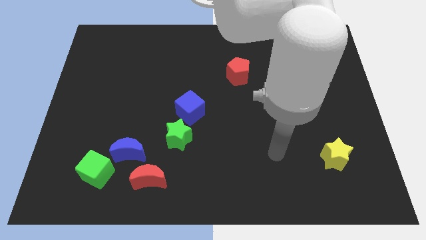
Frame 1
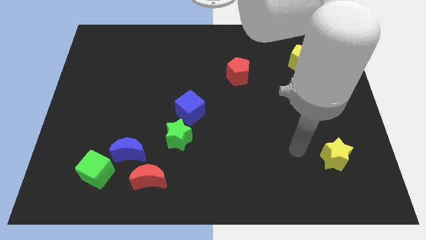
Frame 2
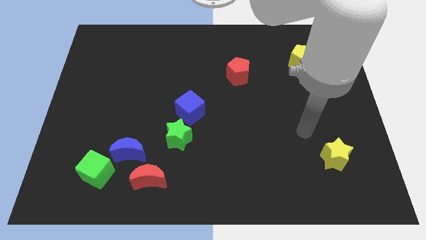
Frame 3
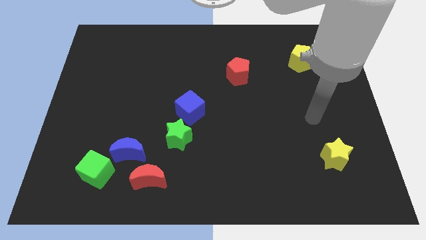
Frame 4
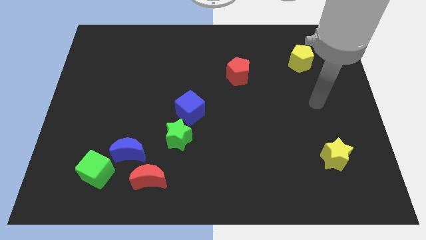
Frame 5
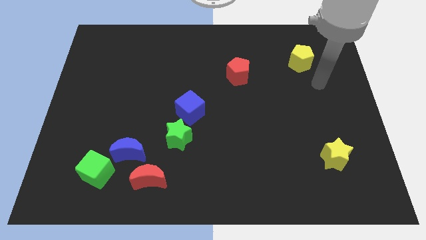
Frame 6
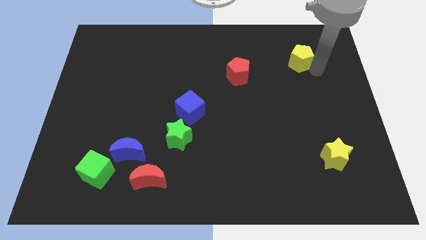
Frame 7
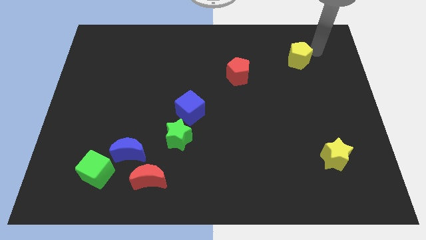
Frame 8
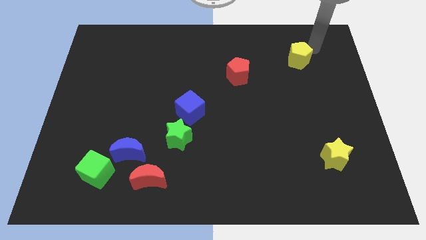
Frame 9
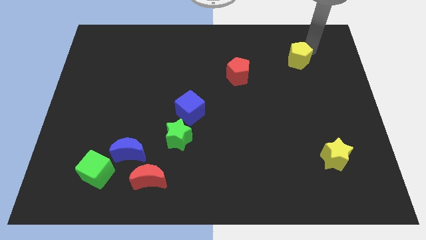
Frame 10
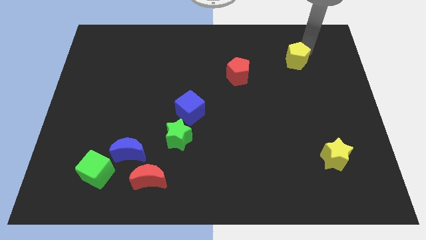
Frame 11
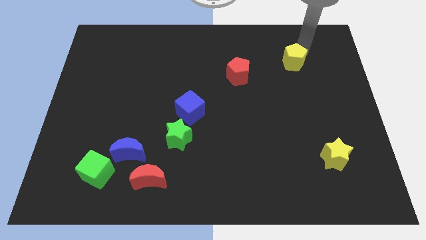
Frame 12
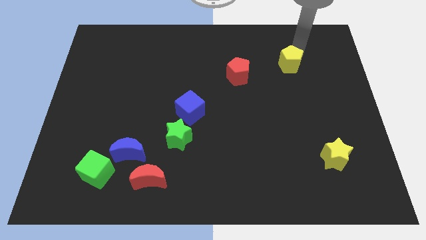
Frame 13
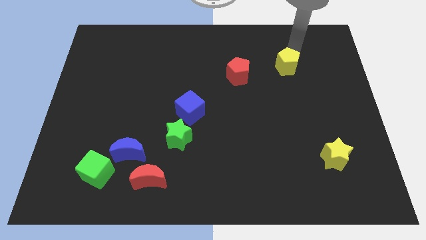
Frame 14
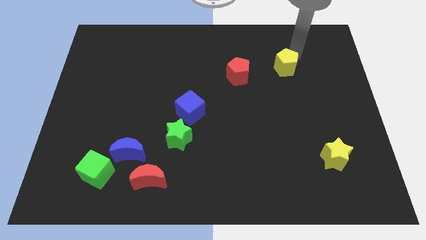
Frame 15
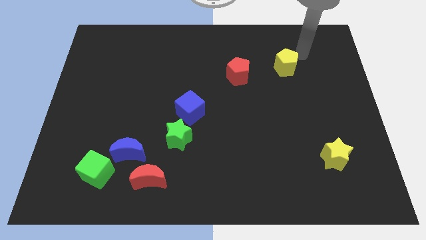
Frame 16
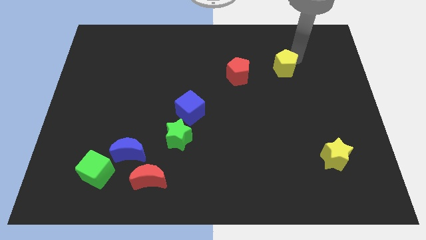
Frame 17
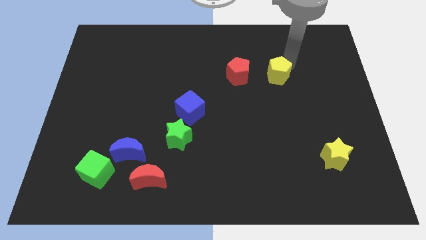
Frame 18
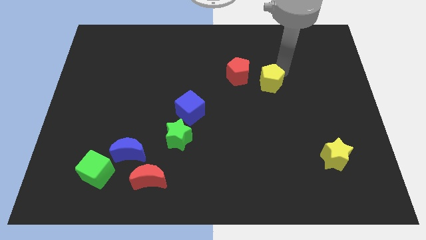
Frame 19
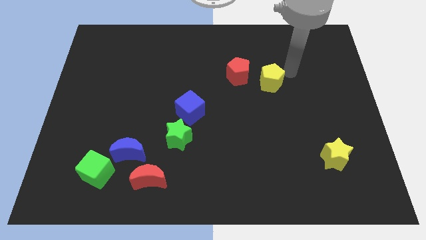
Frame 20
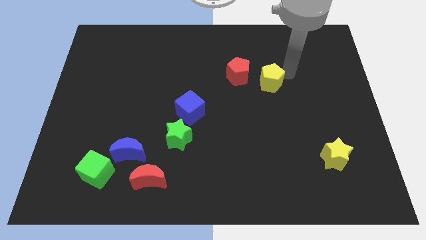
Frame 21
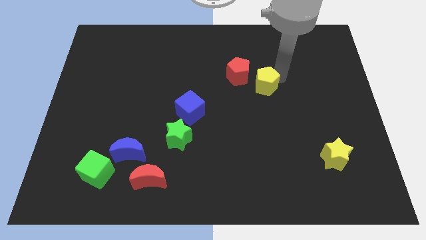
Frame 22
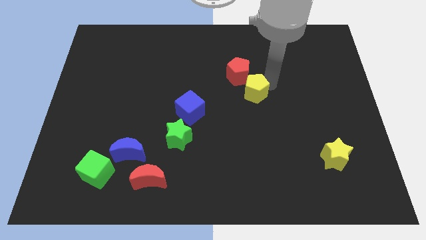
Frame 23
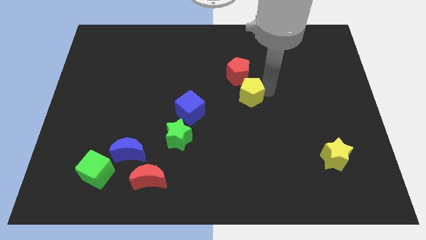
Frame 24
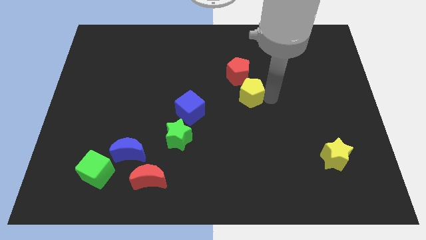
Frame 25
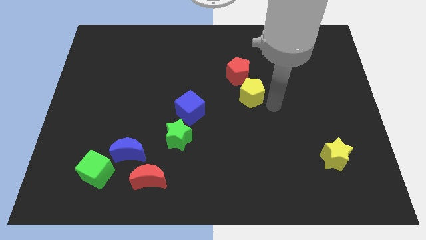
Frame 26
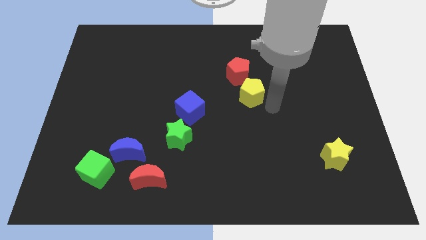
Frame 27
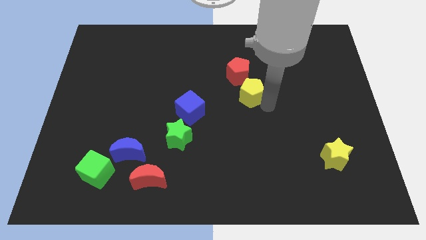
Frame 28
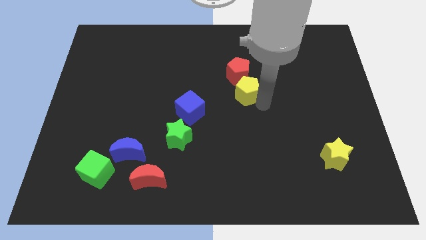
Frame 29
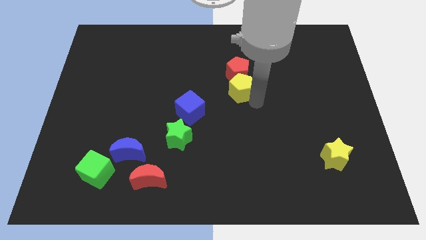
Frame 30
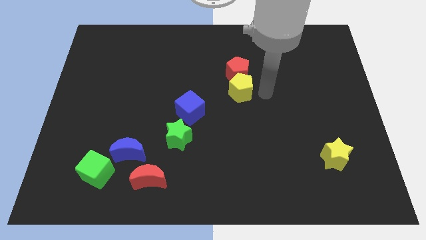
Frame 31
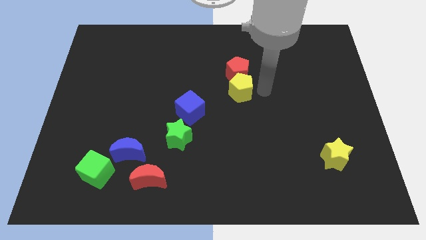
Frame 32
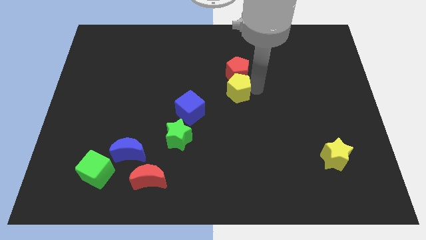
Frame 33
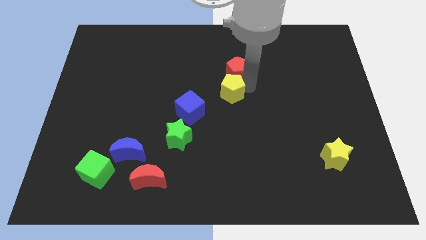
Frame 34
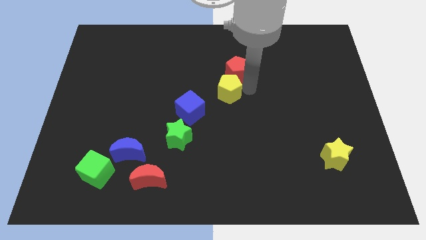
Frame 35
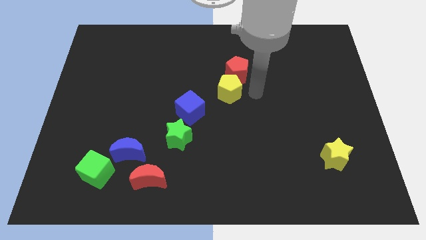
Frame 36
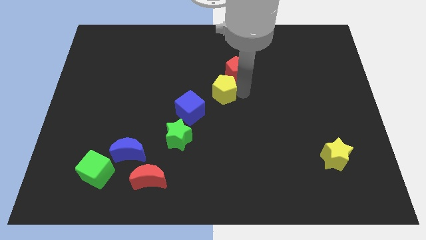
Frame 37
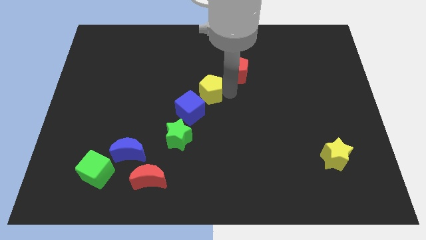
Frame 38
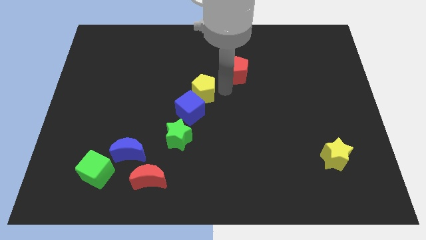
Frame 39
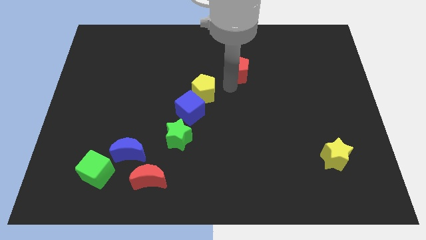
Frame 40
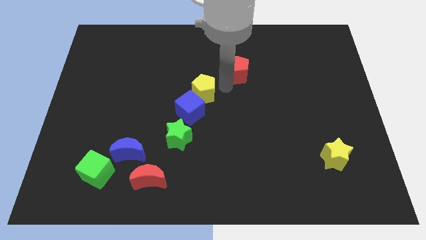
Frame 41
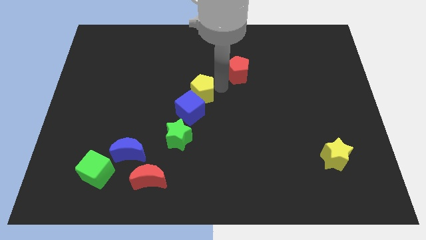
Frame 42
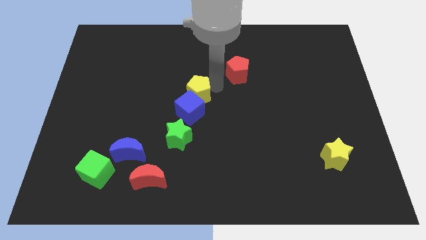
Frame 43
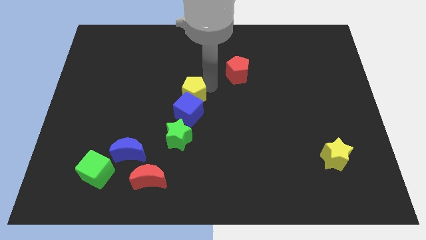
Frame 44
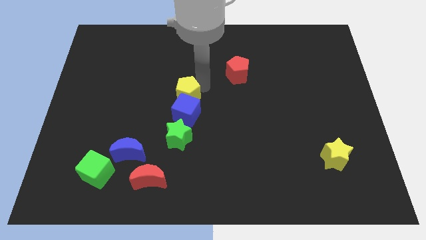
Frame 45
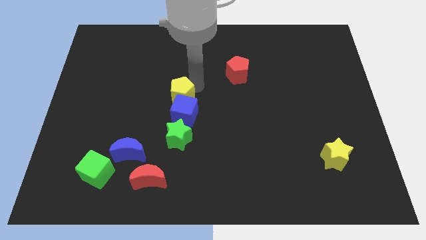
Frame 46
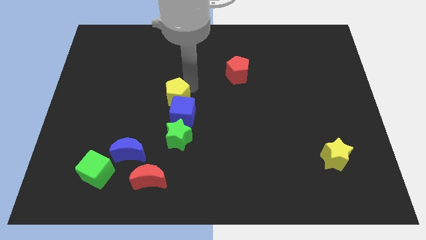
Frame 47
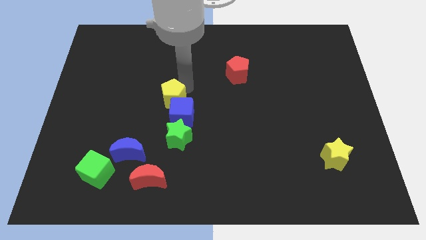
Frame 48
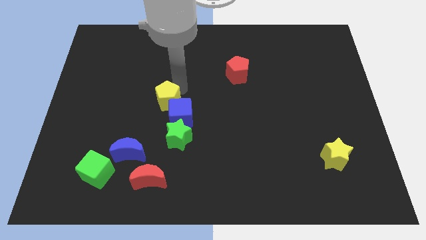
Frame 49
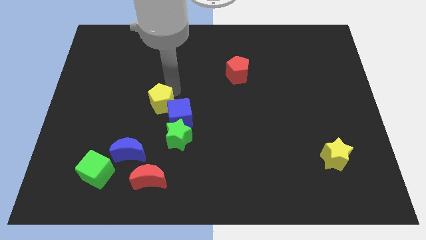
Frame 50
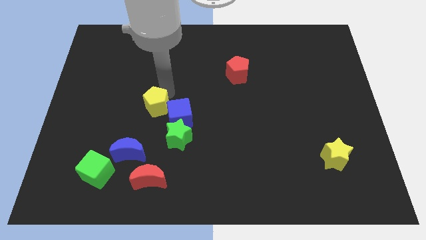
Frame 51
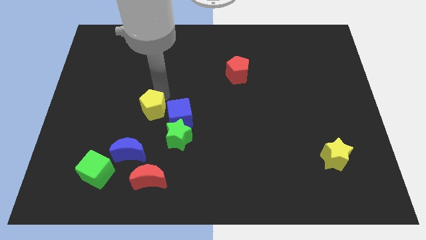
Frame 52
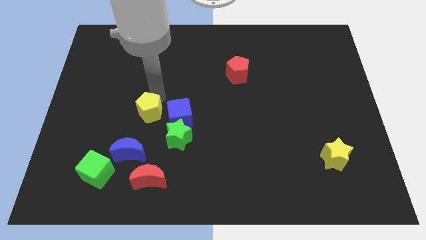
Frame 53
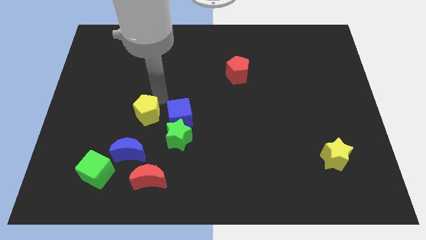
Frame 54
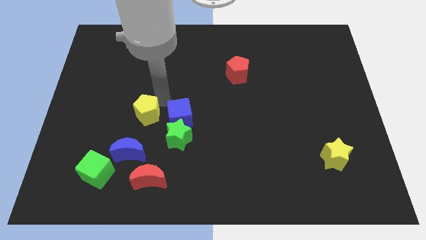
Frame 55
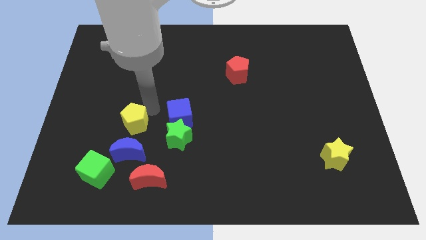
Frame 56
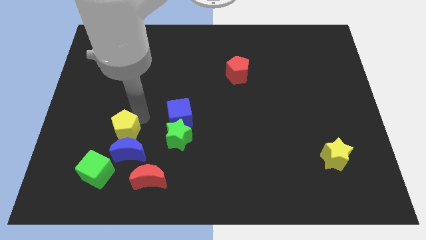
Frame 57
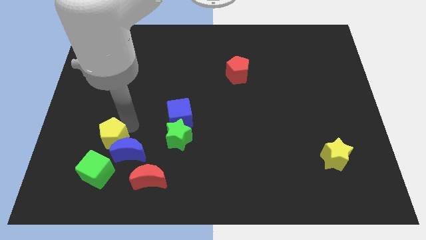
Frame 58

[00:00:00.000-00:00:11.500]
slide the yellow pentagon left of the blue moon

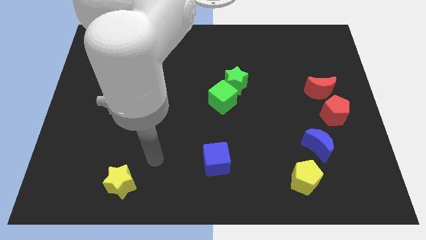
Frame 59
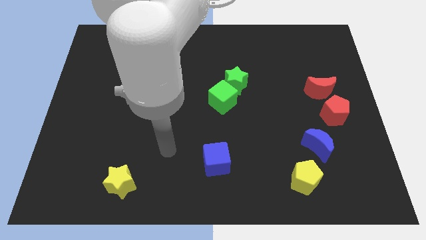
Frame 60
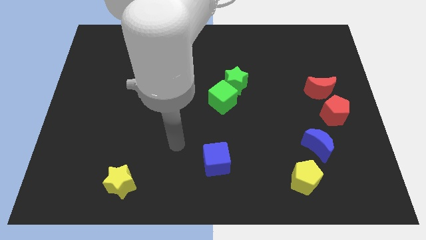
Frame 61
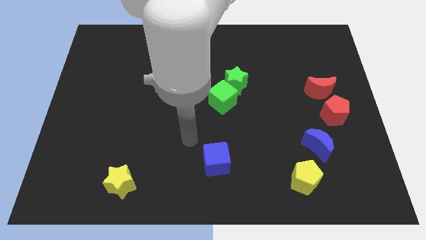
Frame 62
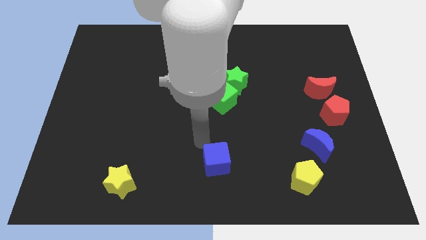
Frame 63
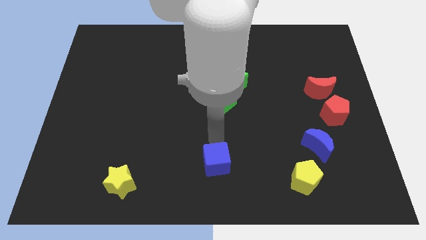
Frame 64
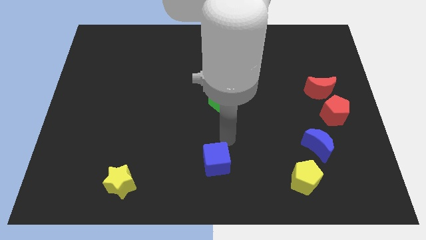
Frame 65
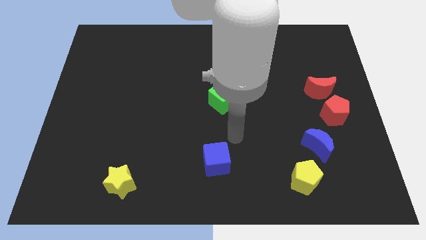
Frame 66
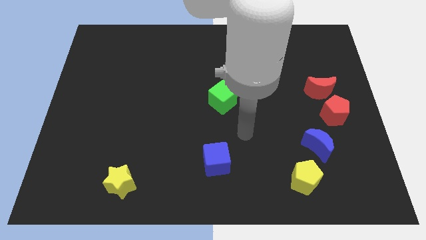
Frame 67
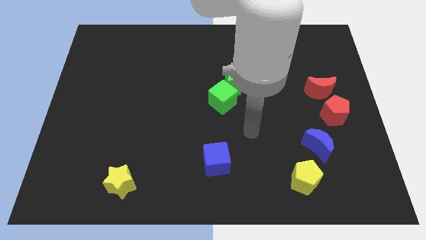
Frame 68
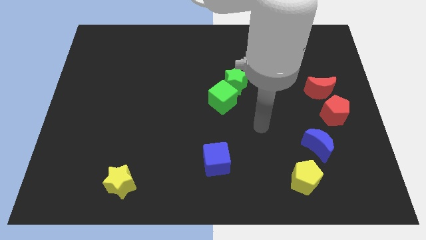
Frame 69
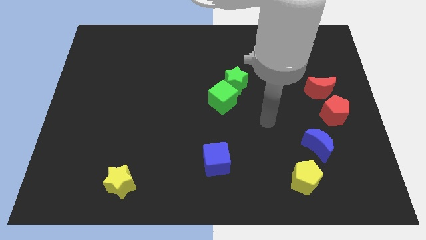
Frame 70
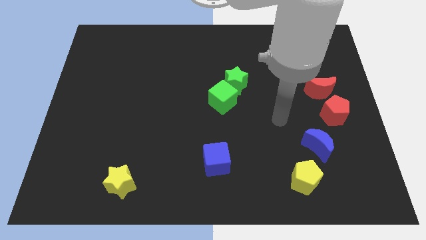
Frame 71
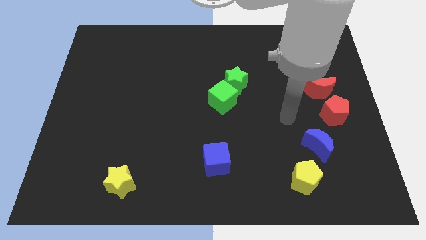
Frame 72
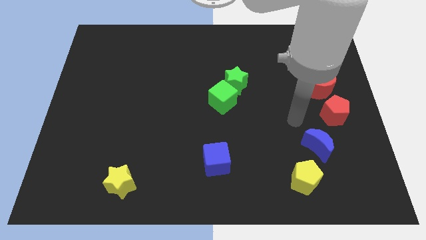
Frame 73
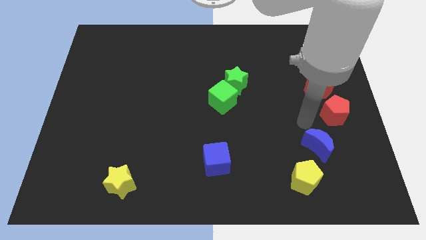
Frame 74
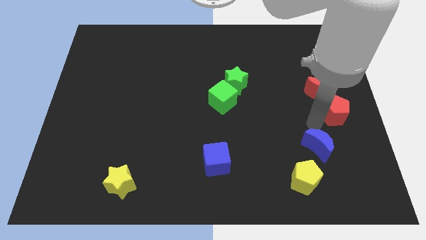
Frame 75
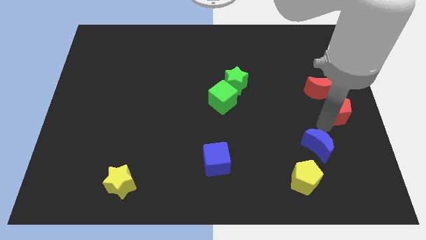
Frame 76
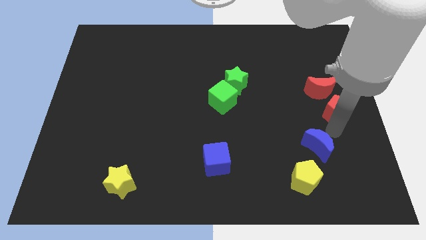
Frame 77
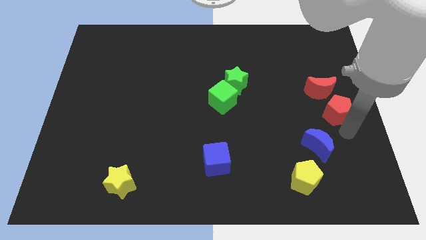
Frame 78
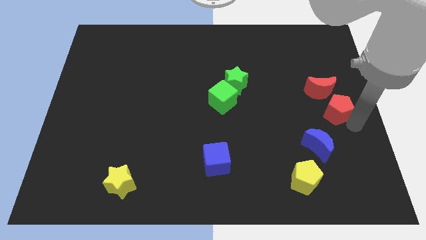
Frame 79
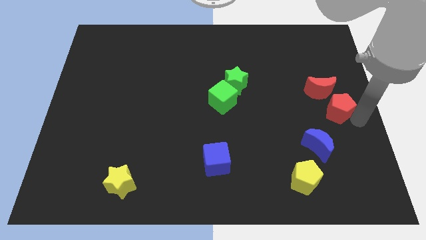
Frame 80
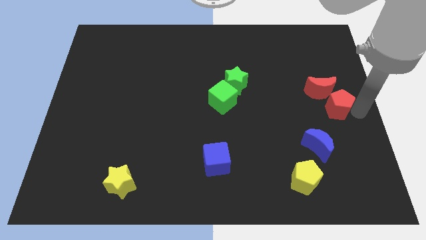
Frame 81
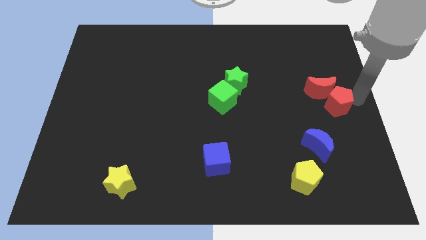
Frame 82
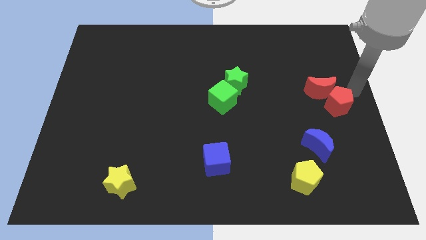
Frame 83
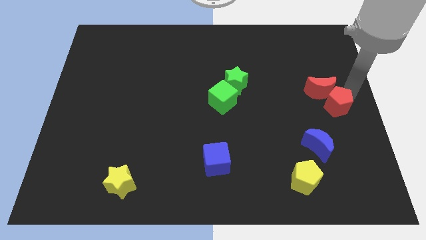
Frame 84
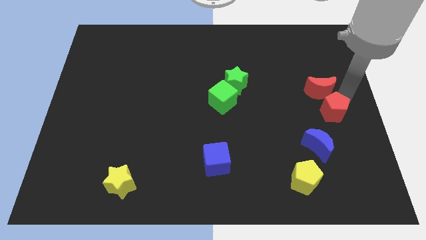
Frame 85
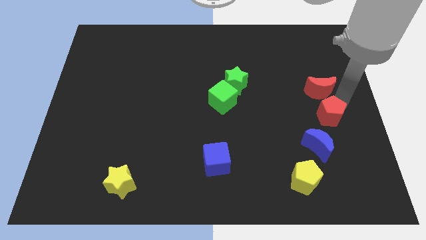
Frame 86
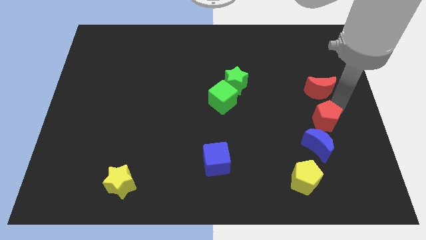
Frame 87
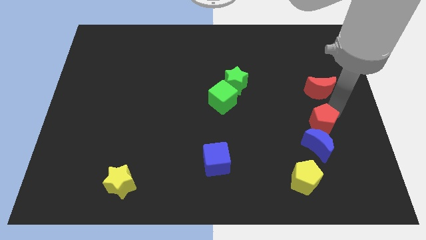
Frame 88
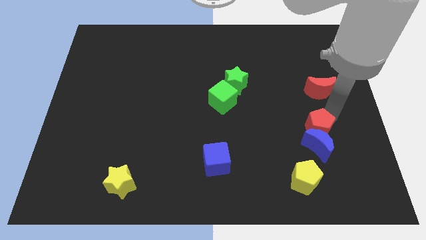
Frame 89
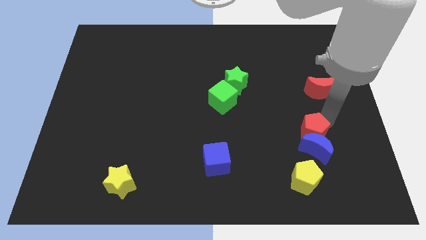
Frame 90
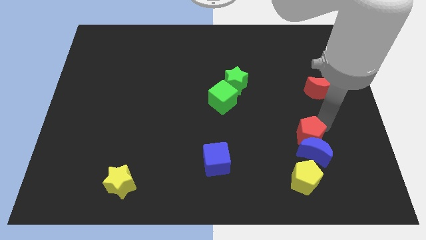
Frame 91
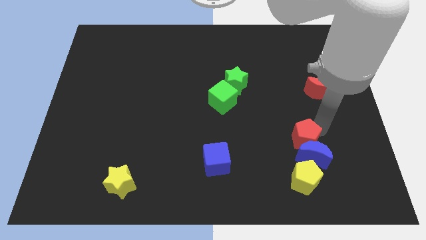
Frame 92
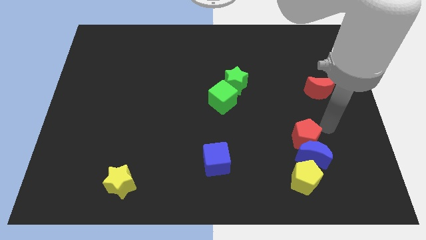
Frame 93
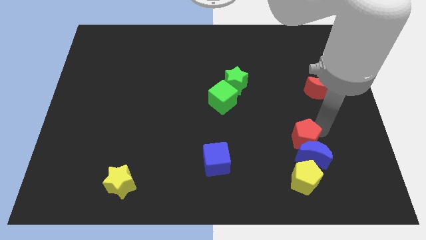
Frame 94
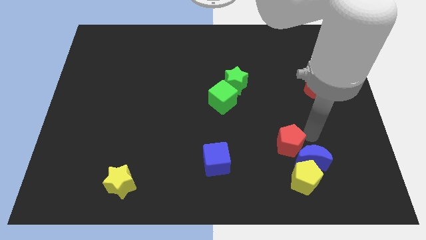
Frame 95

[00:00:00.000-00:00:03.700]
push the red pentagon to the left of the blue moon
